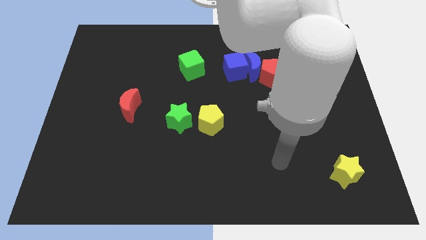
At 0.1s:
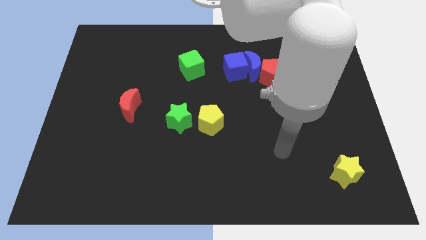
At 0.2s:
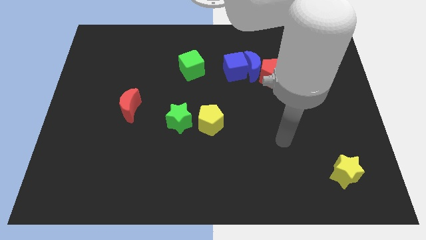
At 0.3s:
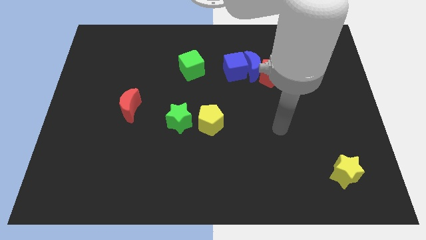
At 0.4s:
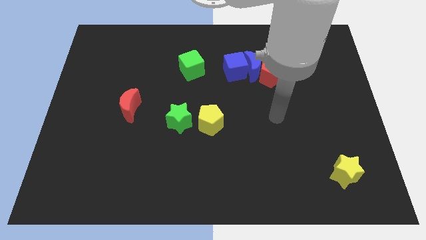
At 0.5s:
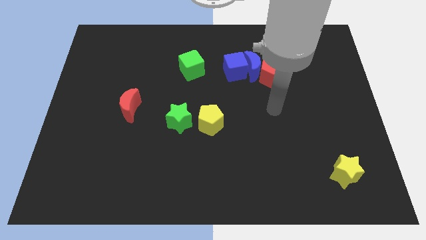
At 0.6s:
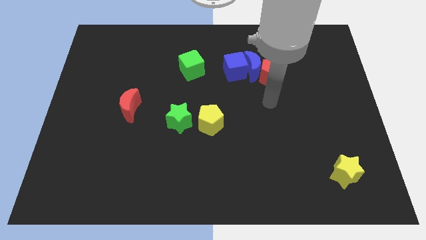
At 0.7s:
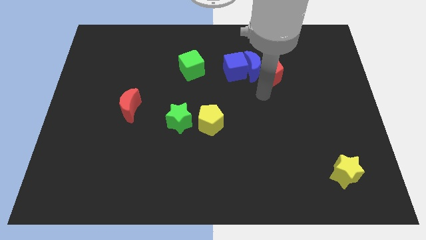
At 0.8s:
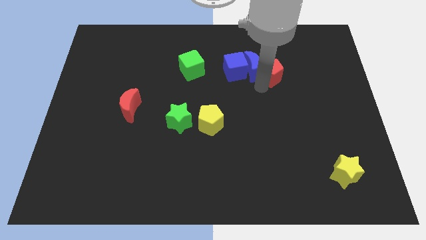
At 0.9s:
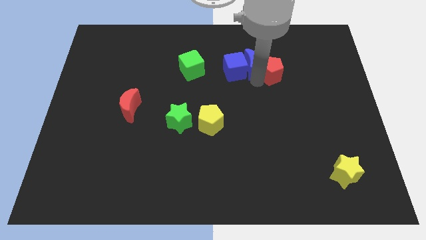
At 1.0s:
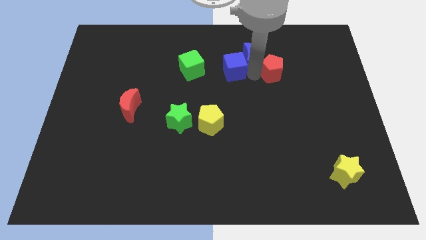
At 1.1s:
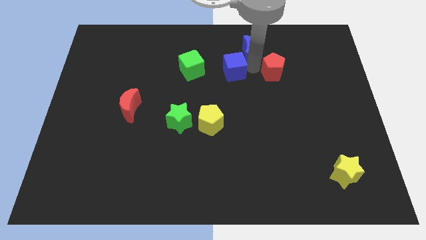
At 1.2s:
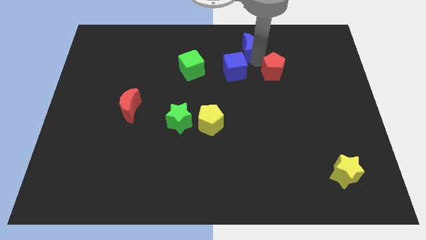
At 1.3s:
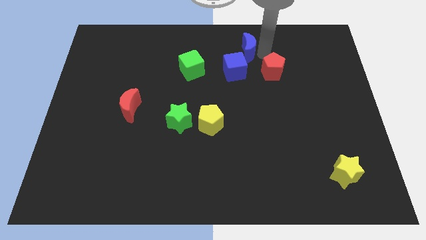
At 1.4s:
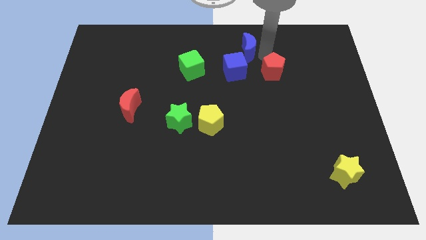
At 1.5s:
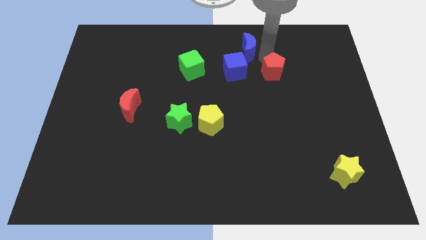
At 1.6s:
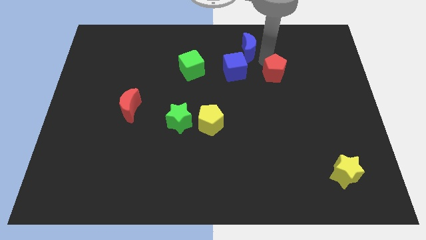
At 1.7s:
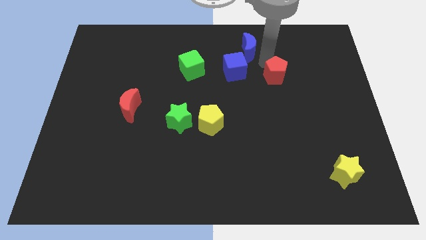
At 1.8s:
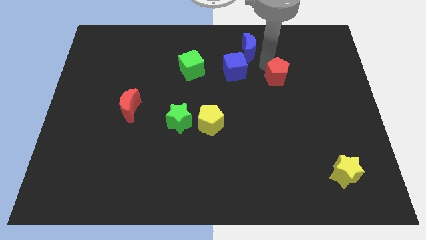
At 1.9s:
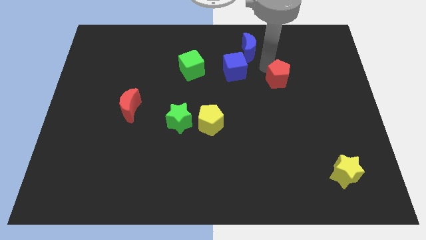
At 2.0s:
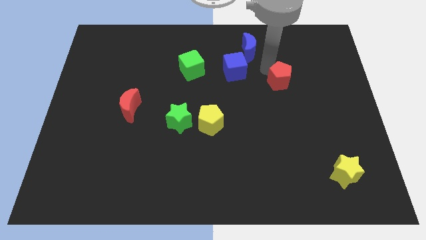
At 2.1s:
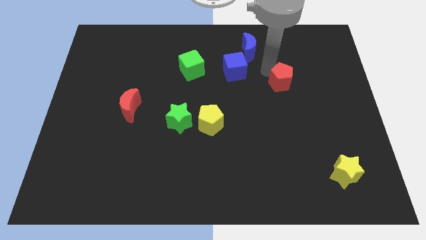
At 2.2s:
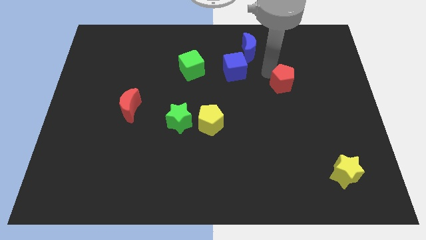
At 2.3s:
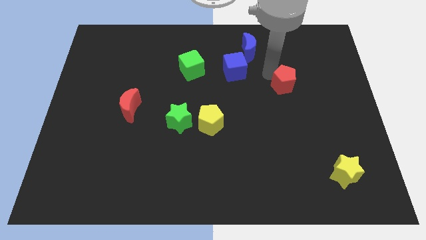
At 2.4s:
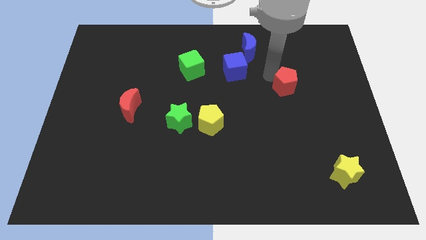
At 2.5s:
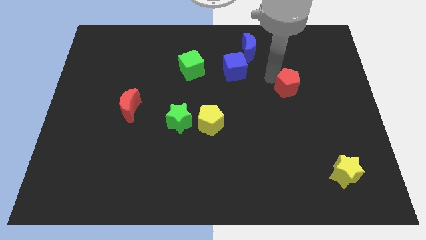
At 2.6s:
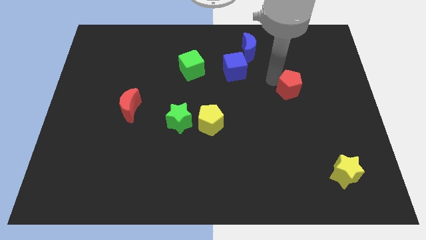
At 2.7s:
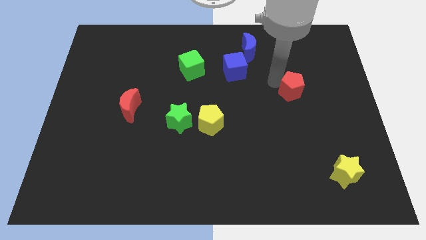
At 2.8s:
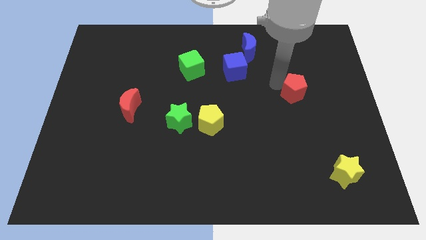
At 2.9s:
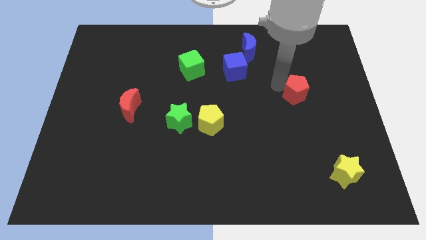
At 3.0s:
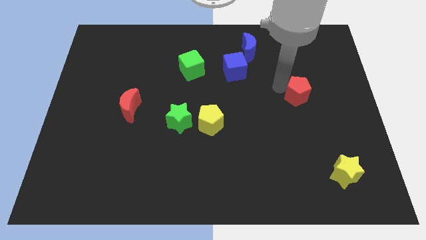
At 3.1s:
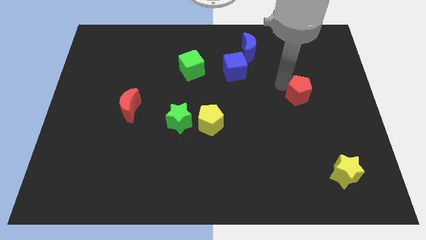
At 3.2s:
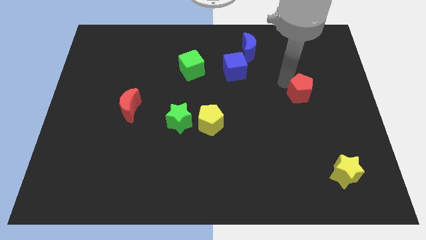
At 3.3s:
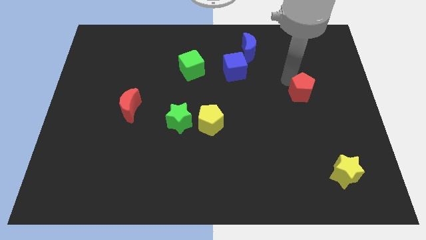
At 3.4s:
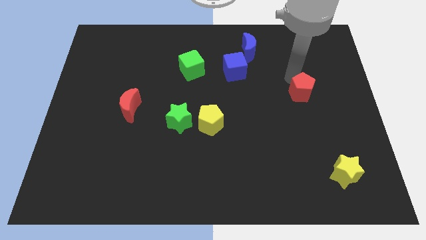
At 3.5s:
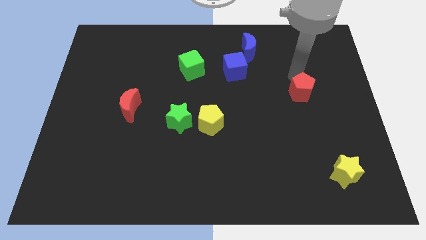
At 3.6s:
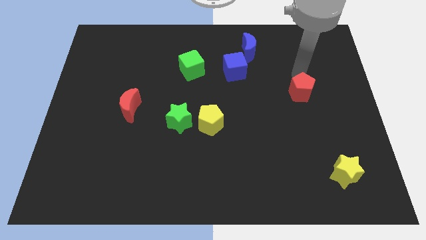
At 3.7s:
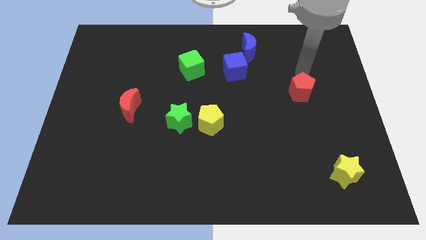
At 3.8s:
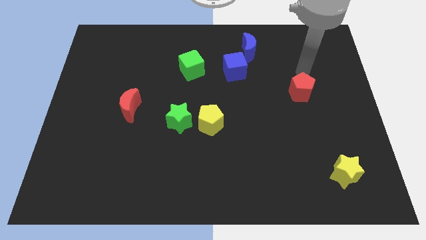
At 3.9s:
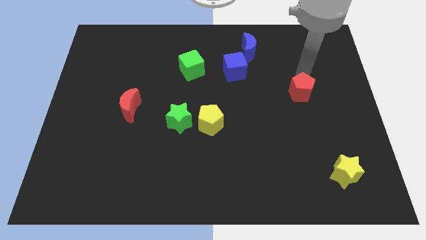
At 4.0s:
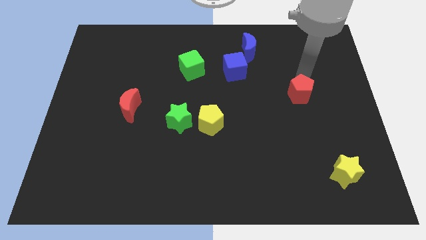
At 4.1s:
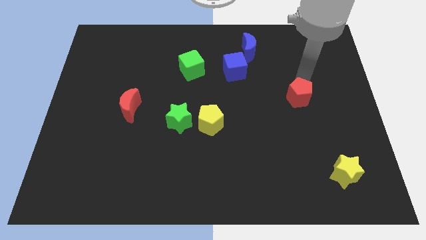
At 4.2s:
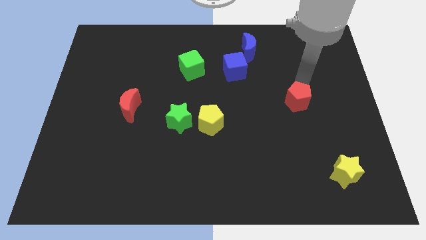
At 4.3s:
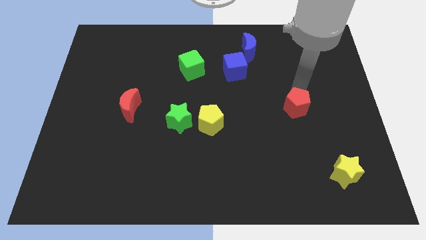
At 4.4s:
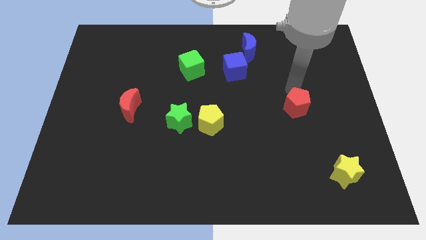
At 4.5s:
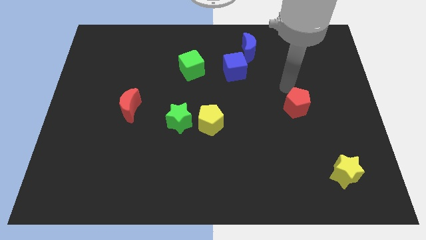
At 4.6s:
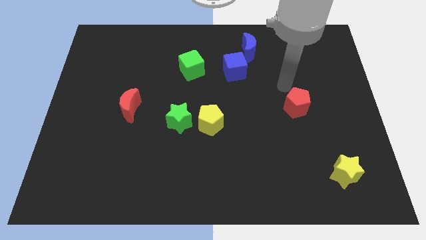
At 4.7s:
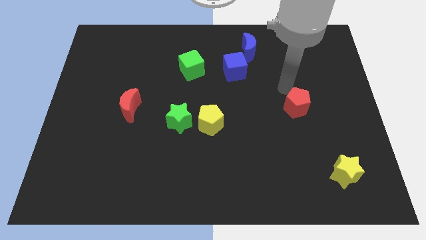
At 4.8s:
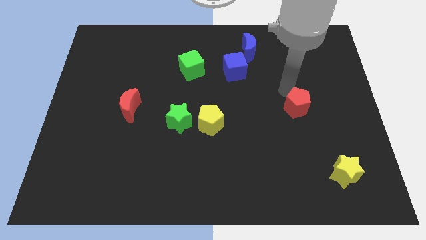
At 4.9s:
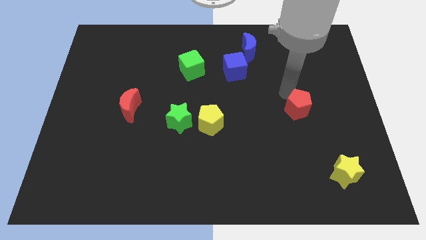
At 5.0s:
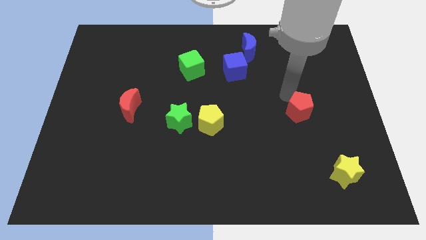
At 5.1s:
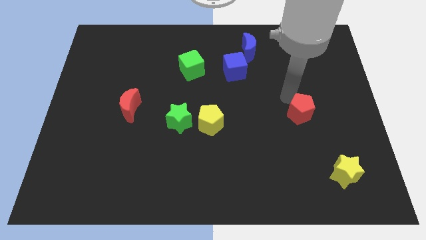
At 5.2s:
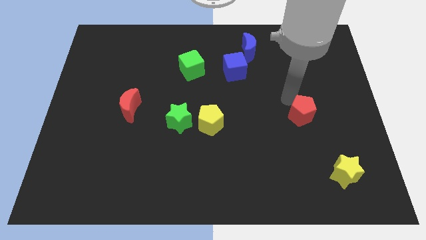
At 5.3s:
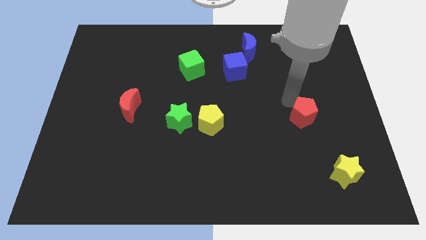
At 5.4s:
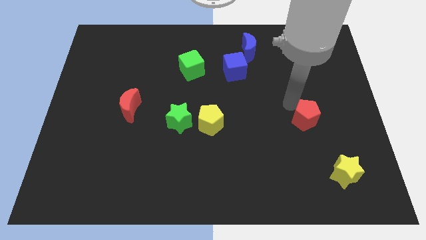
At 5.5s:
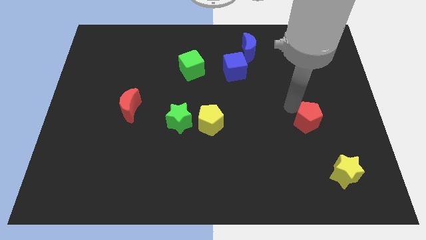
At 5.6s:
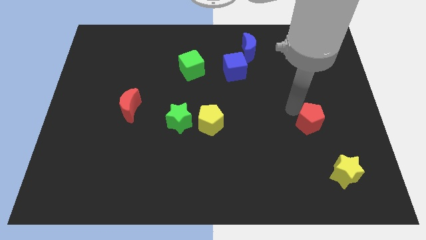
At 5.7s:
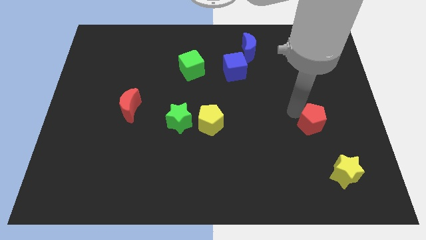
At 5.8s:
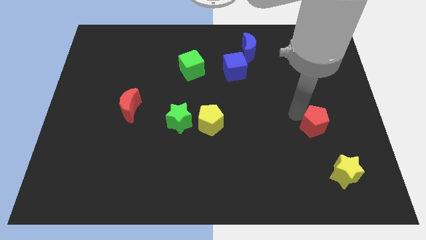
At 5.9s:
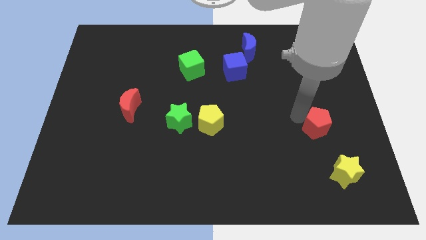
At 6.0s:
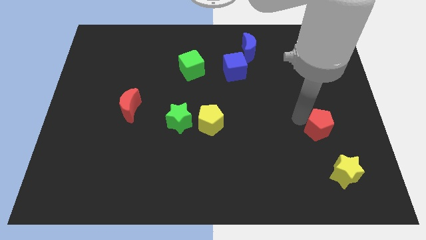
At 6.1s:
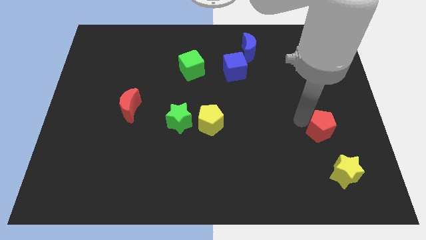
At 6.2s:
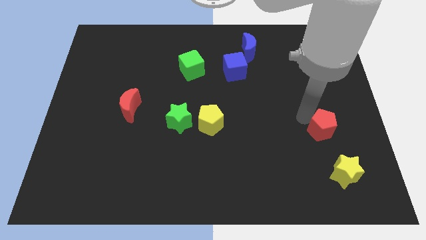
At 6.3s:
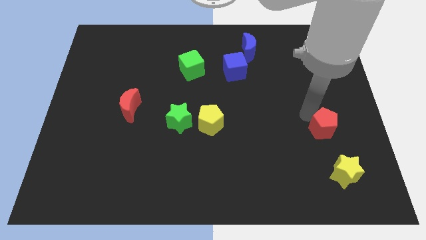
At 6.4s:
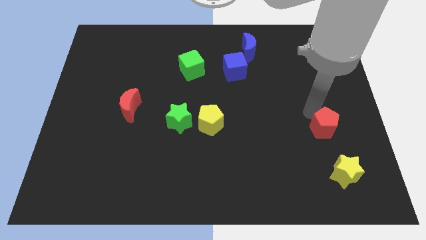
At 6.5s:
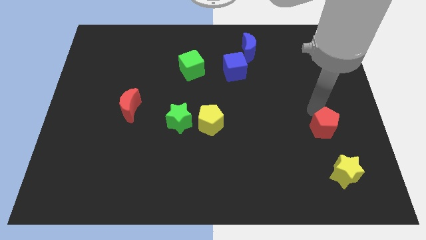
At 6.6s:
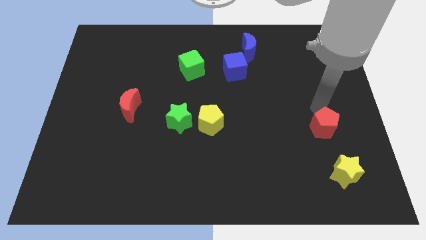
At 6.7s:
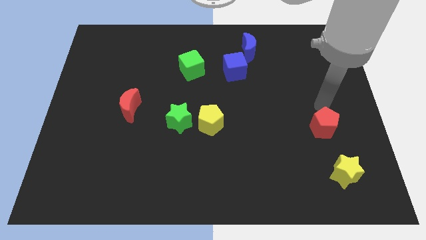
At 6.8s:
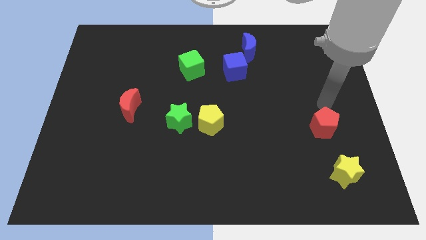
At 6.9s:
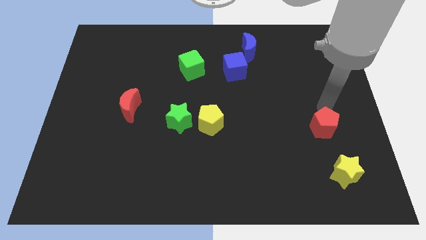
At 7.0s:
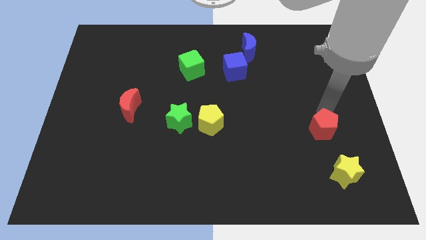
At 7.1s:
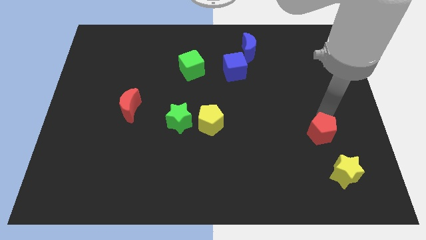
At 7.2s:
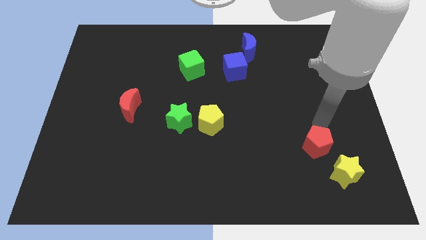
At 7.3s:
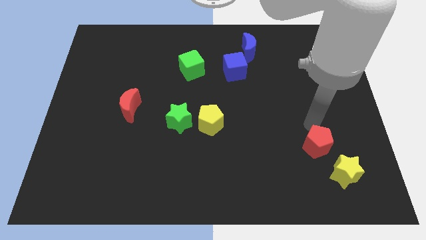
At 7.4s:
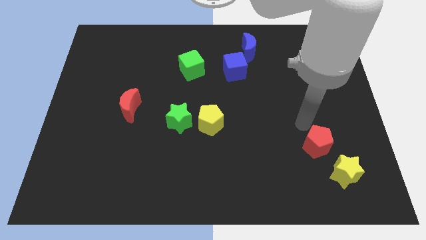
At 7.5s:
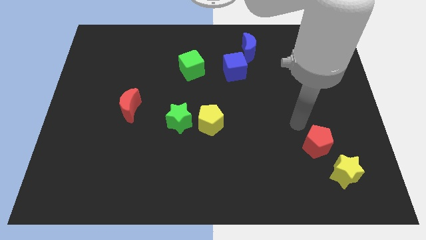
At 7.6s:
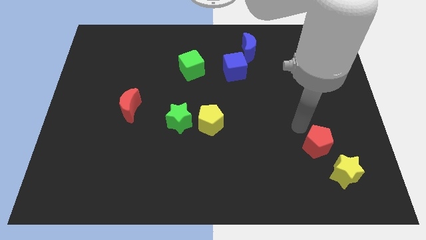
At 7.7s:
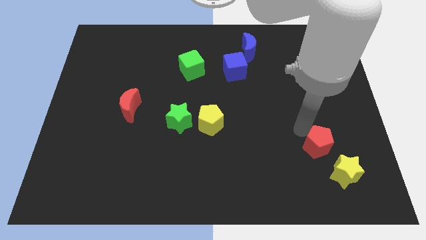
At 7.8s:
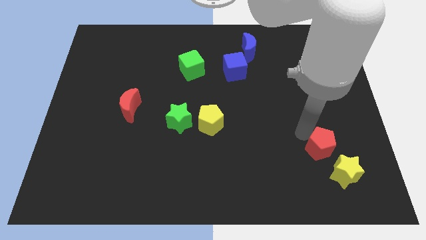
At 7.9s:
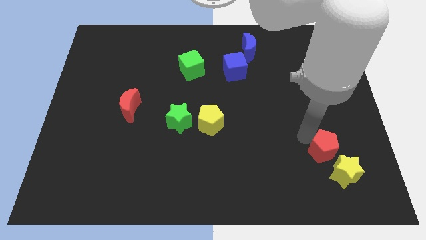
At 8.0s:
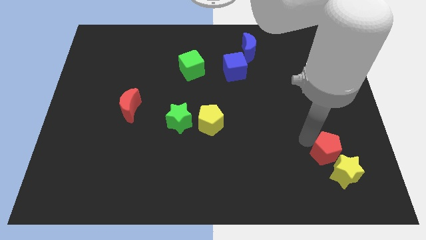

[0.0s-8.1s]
slide the red pentagon towards the yellow star
